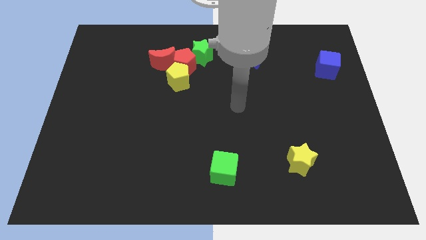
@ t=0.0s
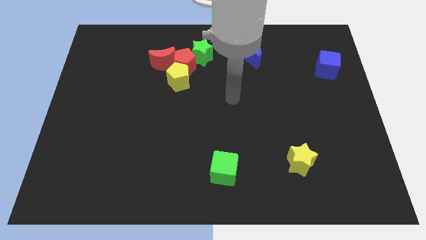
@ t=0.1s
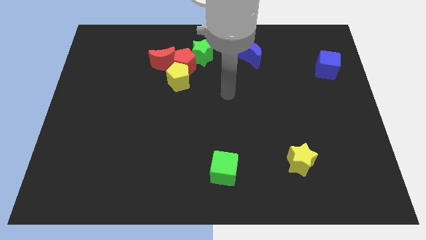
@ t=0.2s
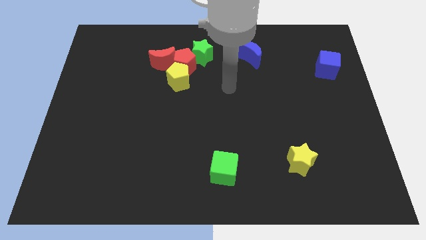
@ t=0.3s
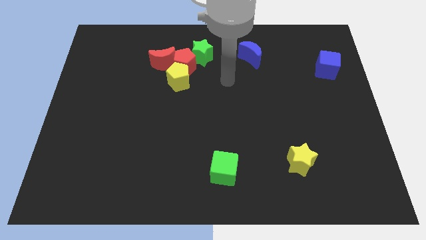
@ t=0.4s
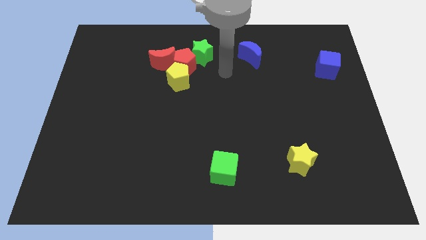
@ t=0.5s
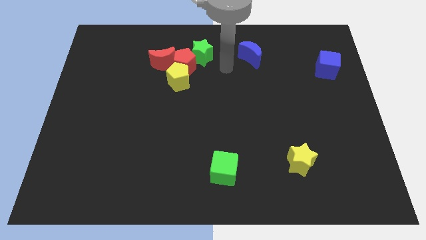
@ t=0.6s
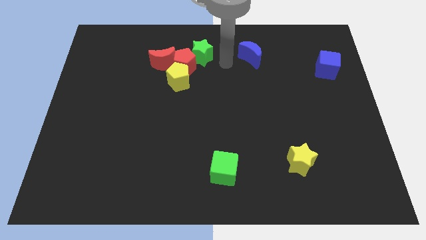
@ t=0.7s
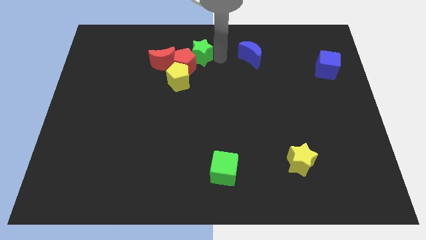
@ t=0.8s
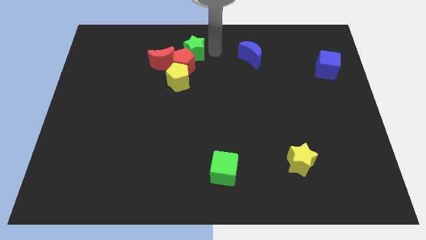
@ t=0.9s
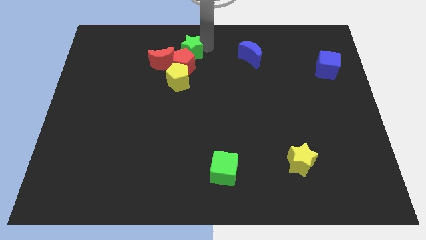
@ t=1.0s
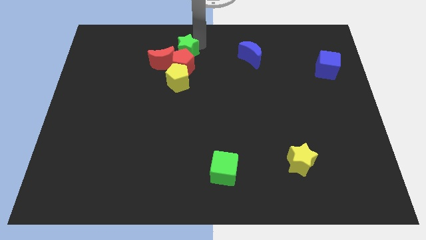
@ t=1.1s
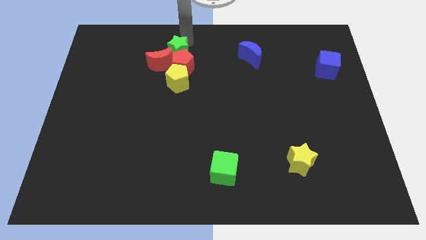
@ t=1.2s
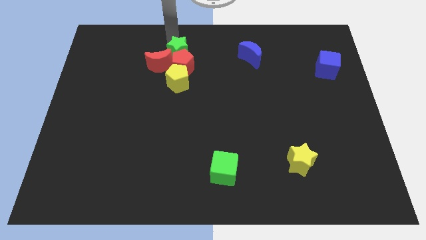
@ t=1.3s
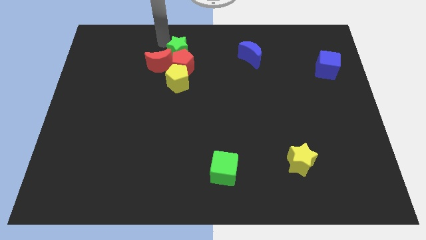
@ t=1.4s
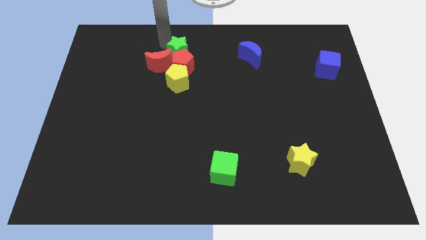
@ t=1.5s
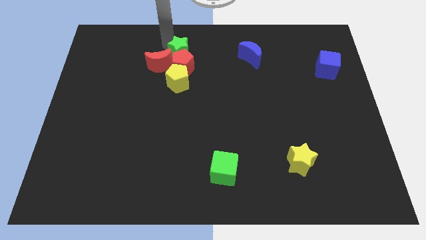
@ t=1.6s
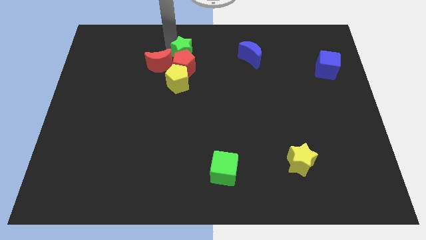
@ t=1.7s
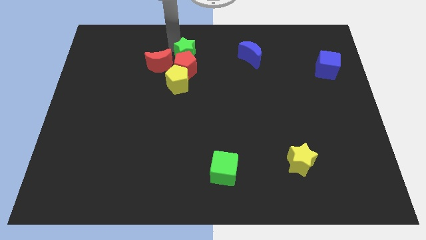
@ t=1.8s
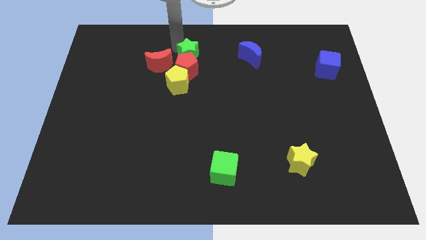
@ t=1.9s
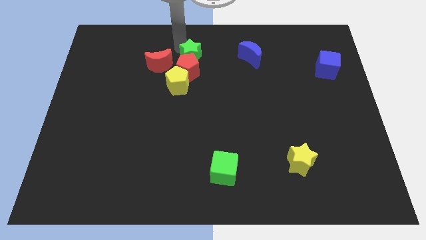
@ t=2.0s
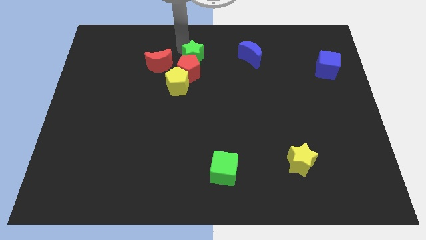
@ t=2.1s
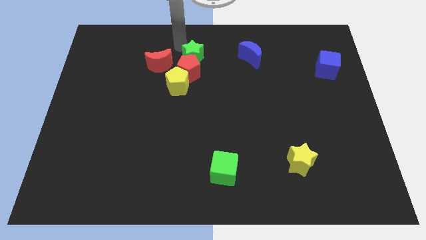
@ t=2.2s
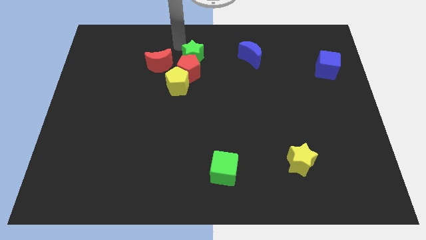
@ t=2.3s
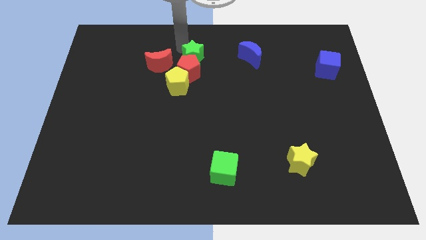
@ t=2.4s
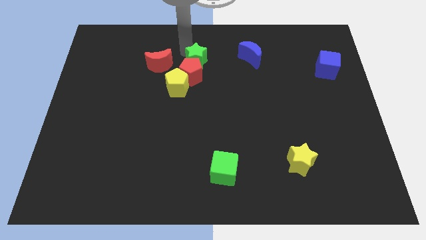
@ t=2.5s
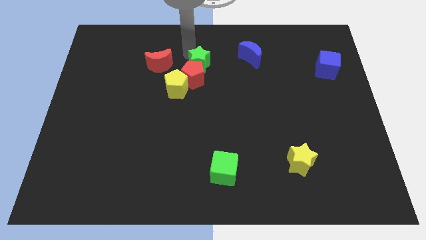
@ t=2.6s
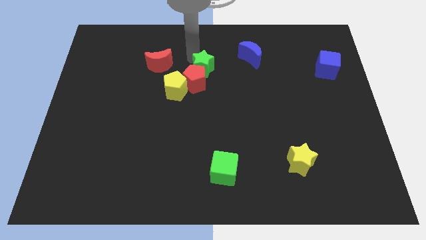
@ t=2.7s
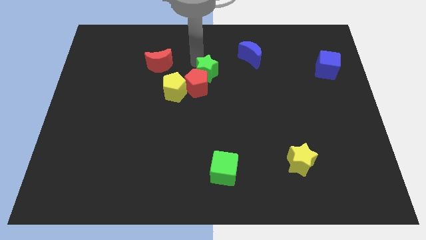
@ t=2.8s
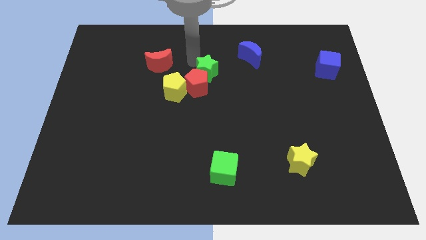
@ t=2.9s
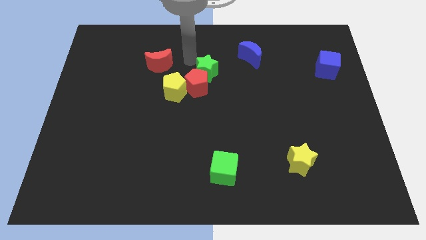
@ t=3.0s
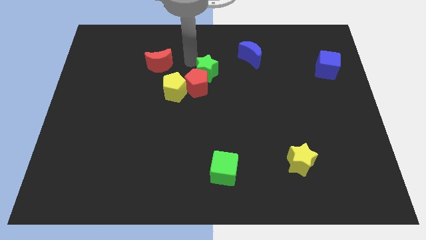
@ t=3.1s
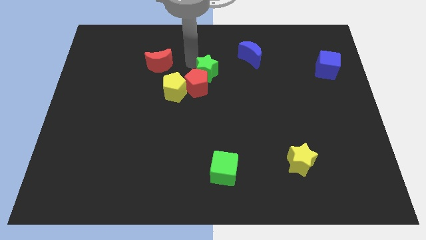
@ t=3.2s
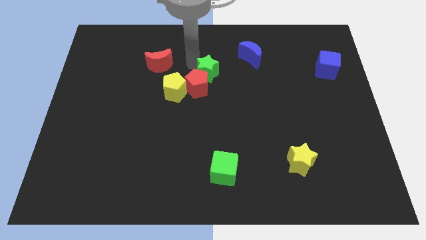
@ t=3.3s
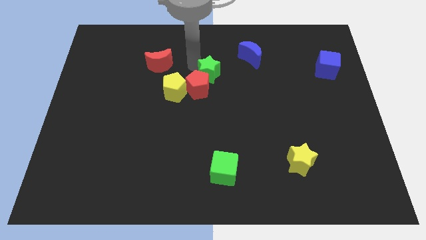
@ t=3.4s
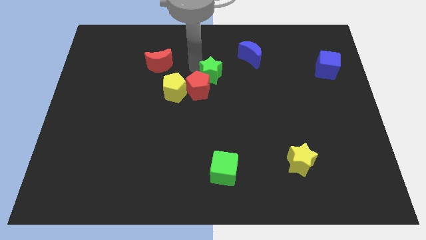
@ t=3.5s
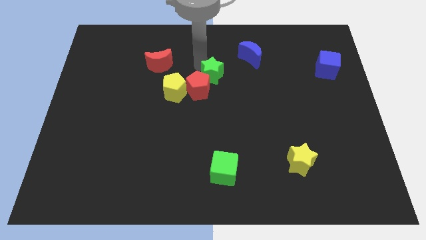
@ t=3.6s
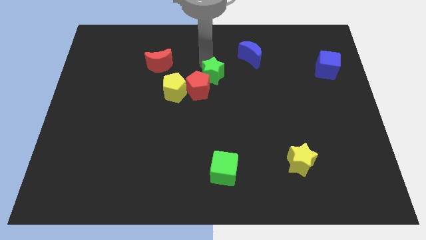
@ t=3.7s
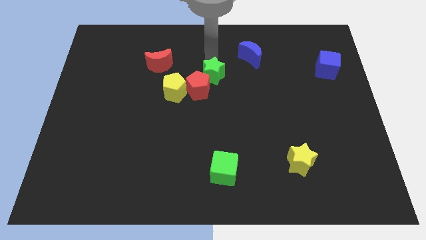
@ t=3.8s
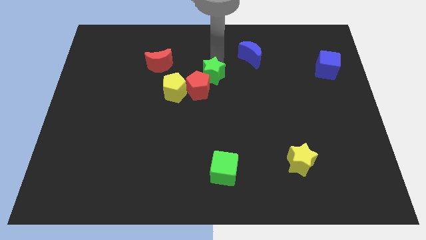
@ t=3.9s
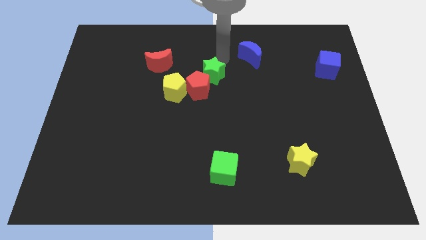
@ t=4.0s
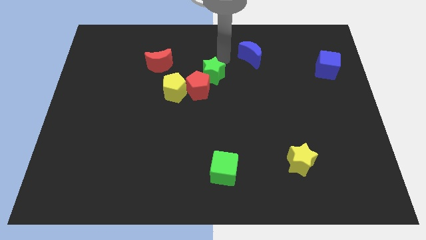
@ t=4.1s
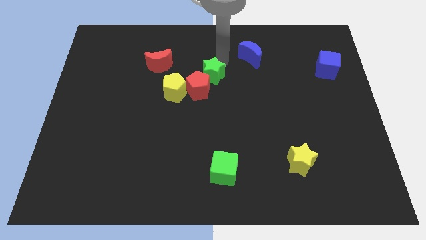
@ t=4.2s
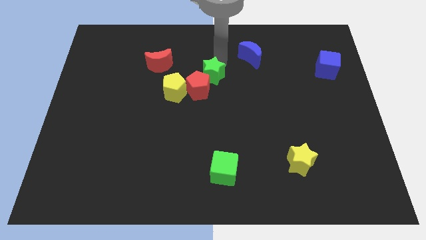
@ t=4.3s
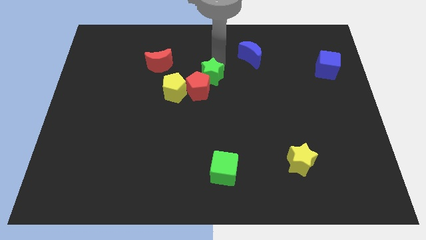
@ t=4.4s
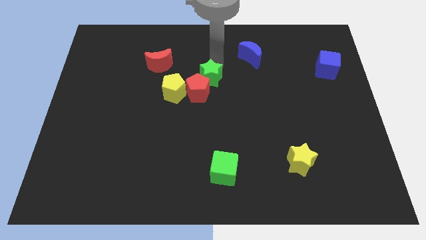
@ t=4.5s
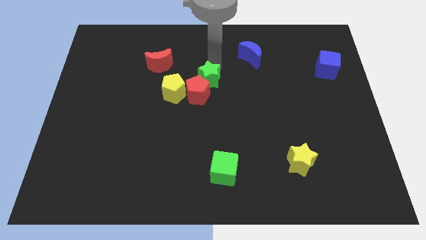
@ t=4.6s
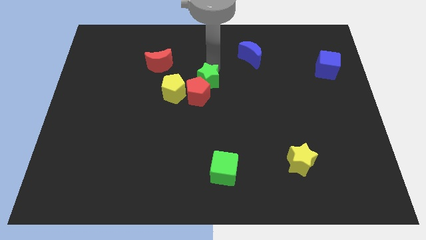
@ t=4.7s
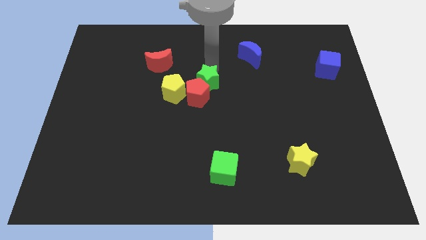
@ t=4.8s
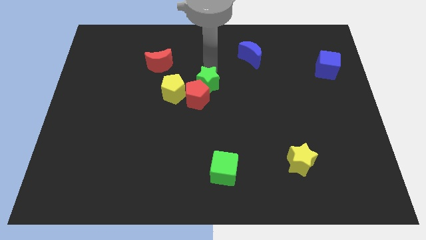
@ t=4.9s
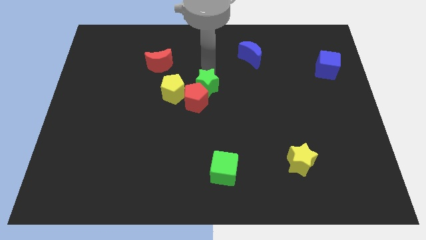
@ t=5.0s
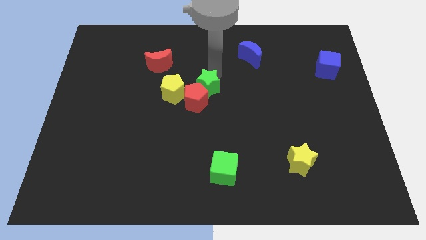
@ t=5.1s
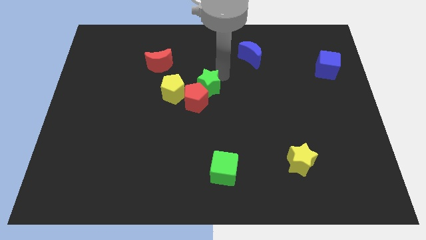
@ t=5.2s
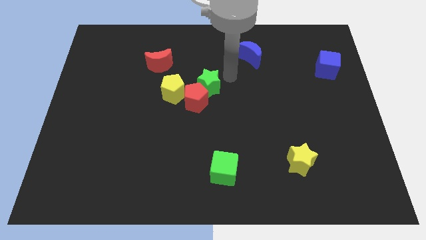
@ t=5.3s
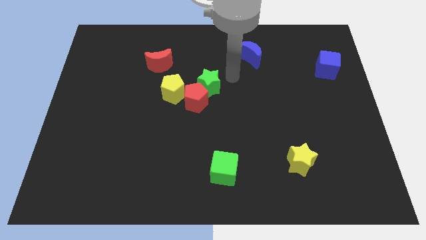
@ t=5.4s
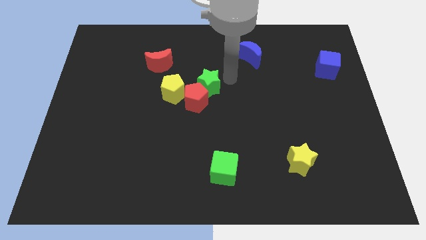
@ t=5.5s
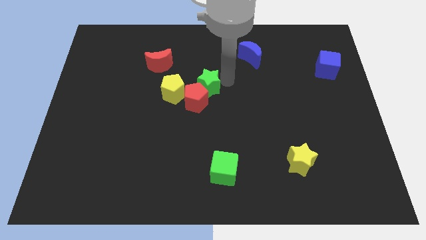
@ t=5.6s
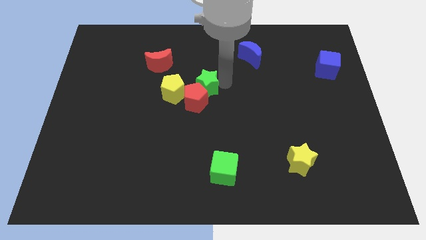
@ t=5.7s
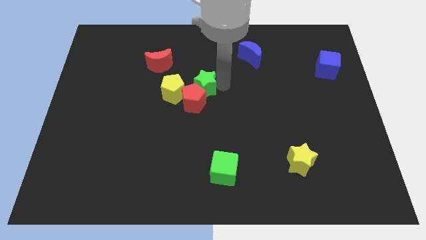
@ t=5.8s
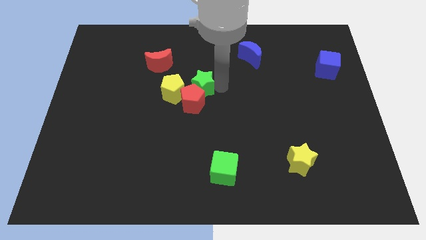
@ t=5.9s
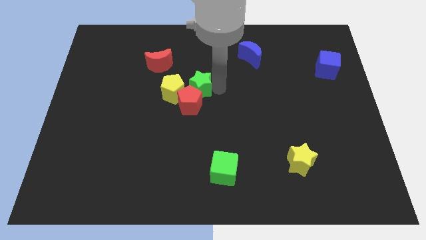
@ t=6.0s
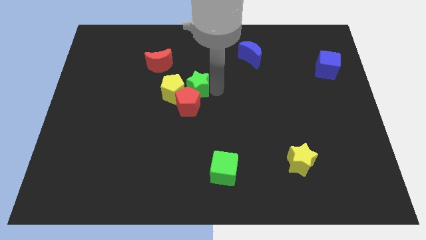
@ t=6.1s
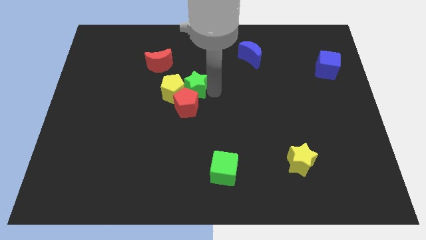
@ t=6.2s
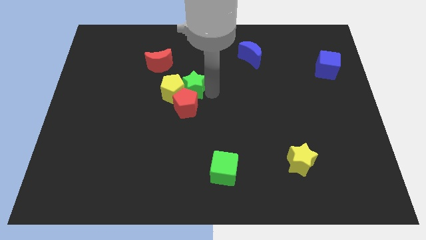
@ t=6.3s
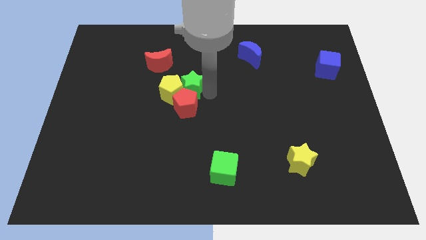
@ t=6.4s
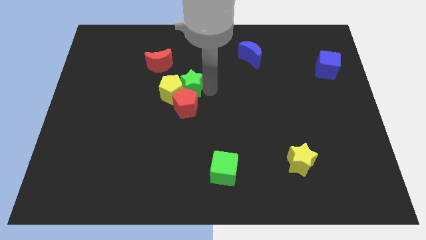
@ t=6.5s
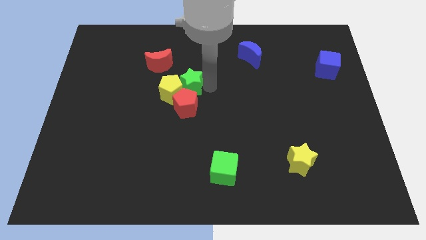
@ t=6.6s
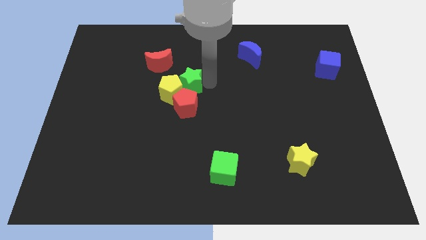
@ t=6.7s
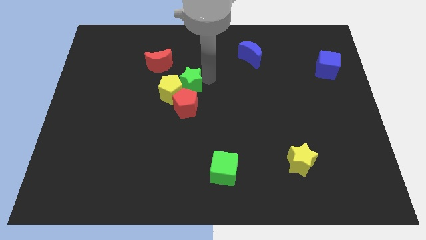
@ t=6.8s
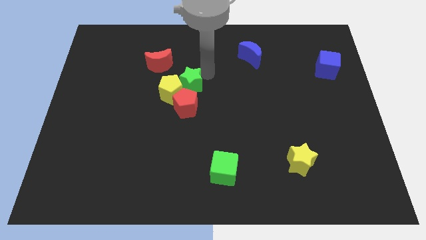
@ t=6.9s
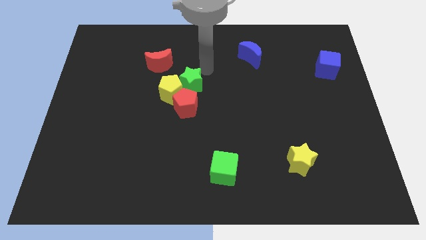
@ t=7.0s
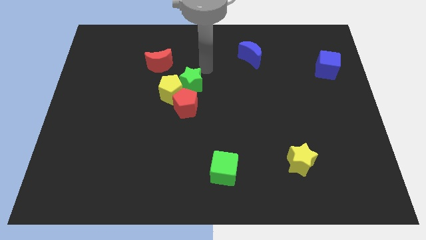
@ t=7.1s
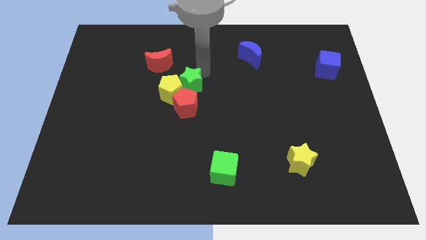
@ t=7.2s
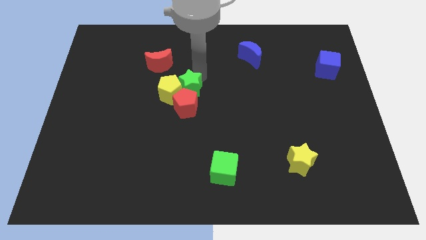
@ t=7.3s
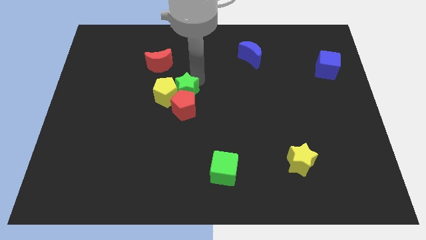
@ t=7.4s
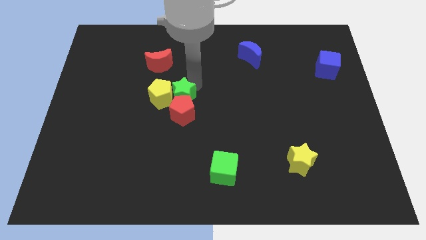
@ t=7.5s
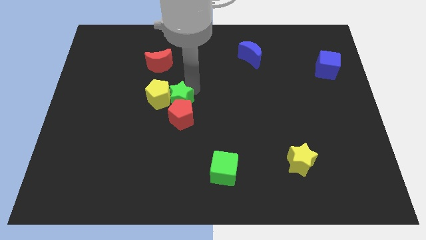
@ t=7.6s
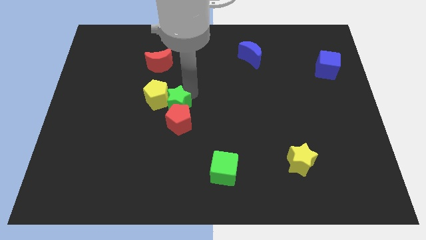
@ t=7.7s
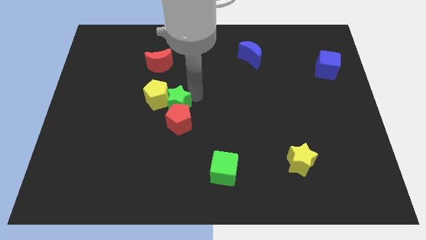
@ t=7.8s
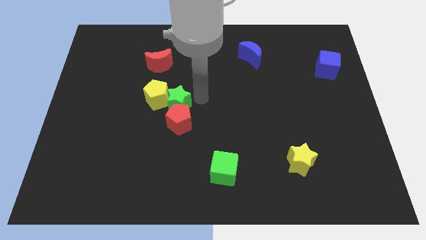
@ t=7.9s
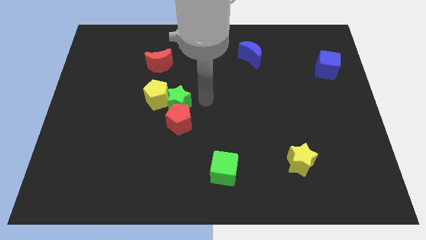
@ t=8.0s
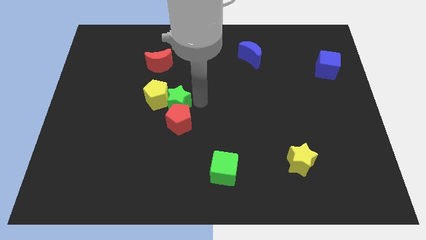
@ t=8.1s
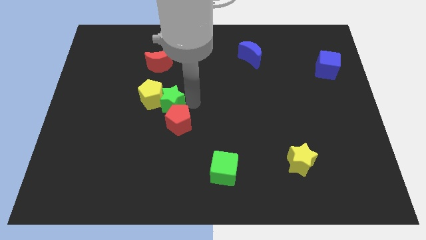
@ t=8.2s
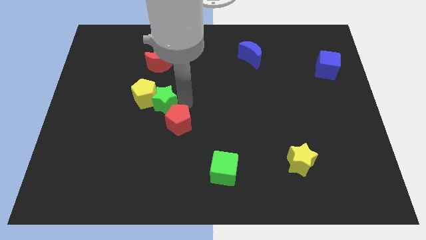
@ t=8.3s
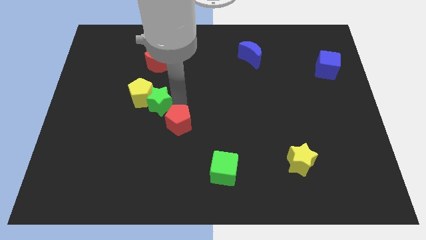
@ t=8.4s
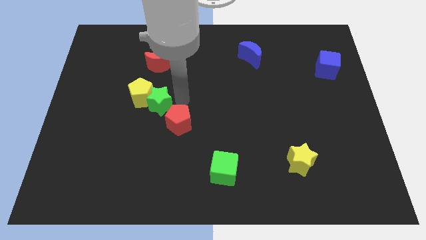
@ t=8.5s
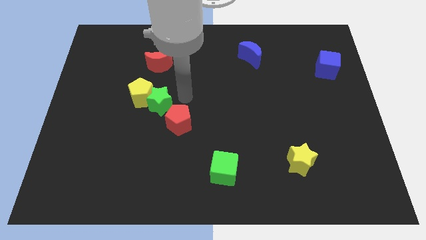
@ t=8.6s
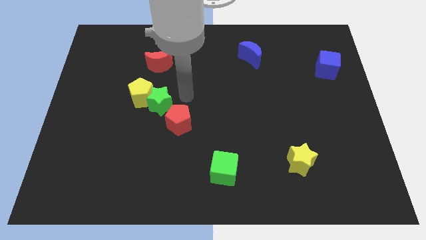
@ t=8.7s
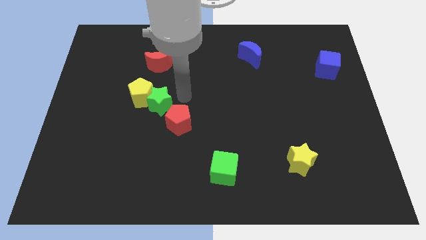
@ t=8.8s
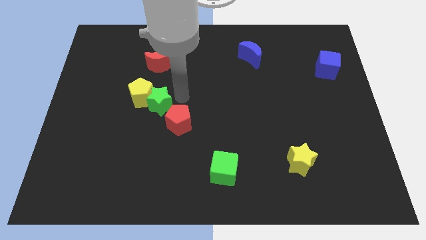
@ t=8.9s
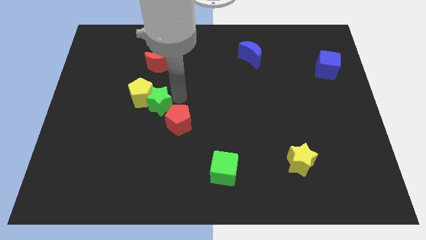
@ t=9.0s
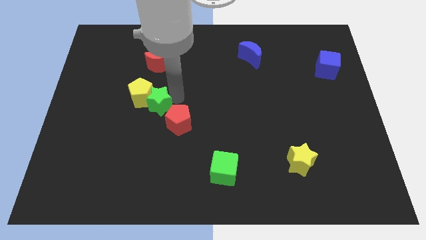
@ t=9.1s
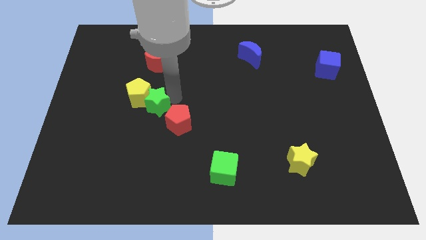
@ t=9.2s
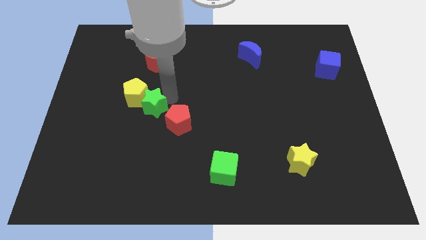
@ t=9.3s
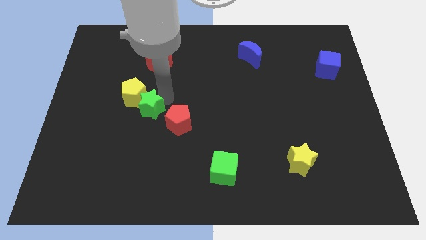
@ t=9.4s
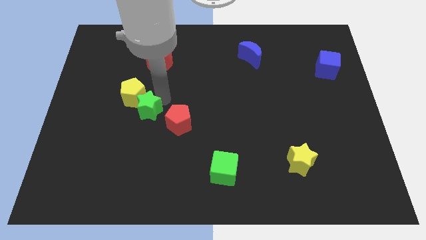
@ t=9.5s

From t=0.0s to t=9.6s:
move the green star diagonally down and to the left
